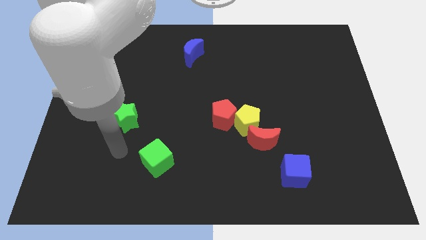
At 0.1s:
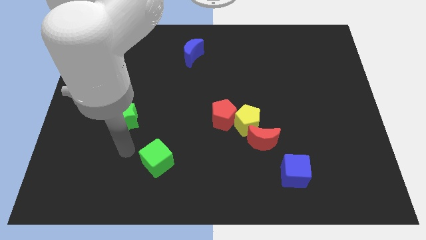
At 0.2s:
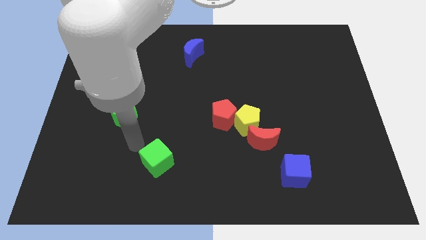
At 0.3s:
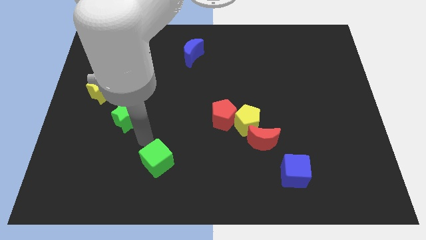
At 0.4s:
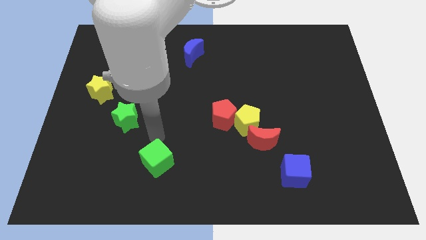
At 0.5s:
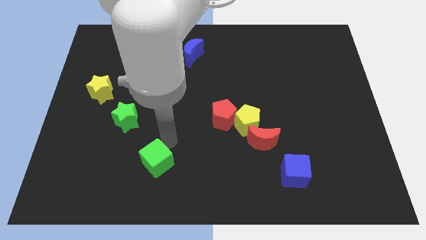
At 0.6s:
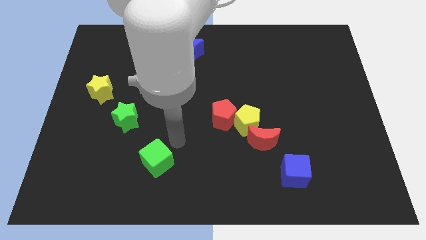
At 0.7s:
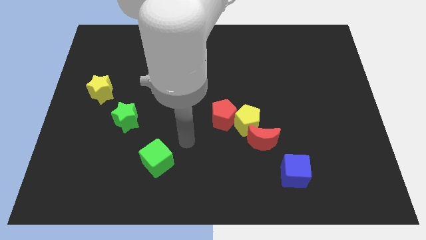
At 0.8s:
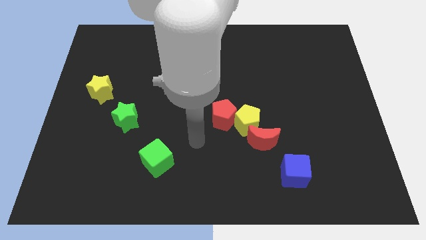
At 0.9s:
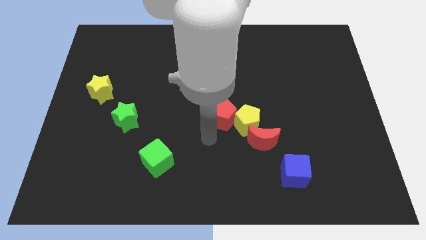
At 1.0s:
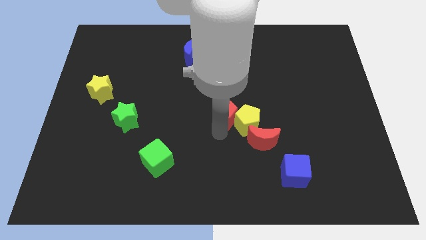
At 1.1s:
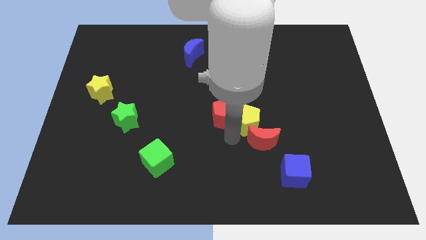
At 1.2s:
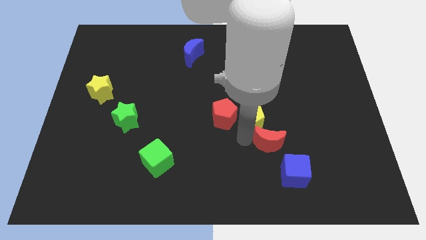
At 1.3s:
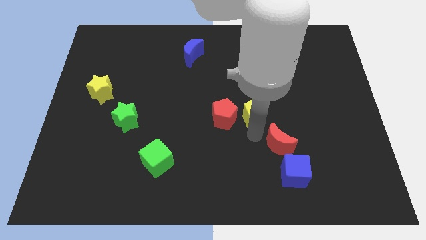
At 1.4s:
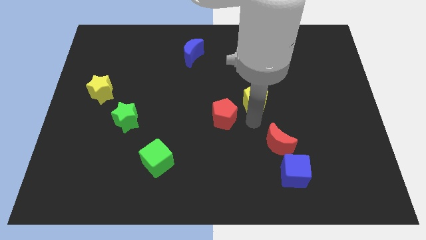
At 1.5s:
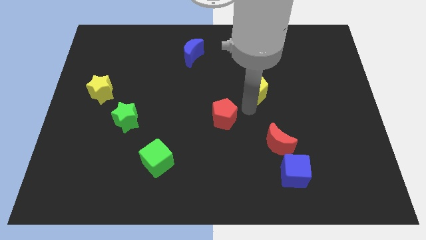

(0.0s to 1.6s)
move the red pentagon away from the yellow pentagon

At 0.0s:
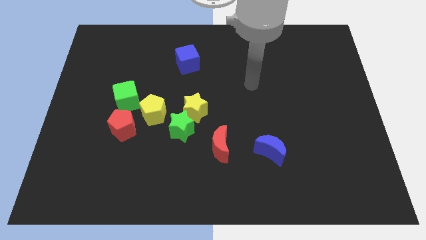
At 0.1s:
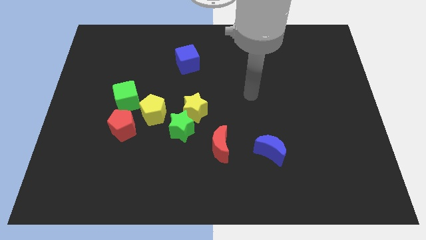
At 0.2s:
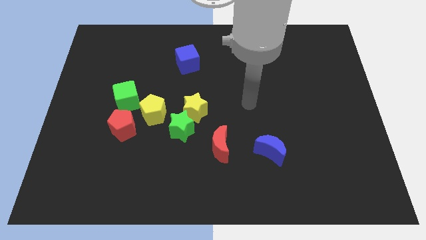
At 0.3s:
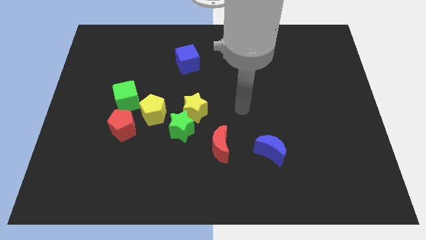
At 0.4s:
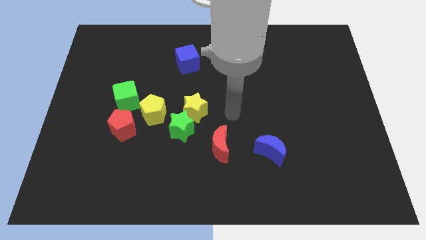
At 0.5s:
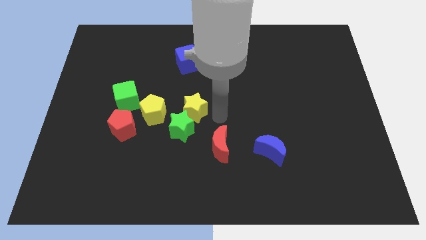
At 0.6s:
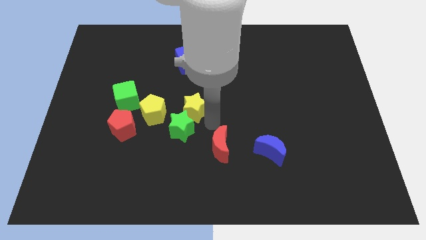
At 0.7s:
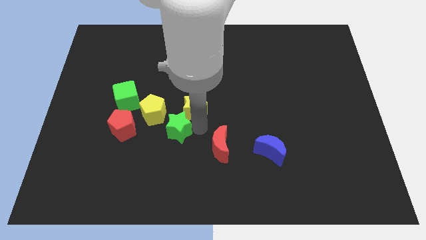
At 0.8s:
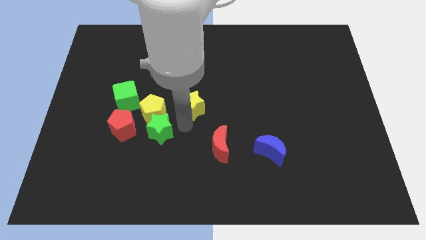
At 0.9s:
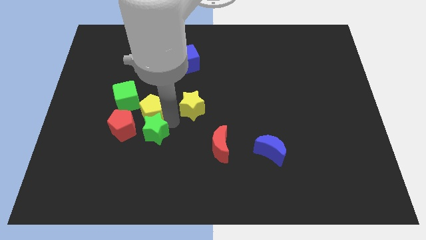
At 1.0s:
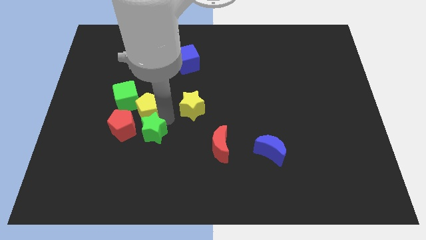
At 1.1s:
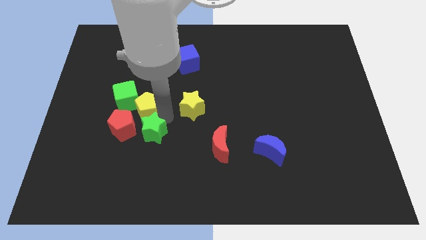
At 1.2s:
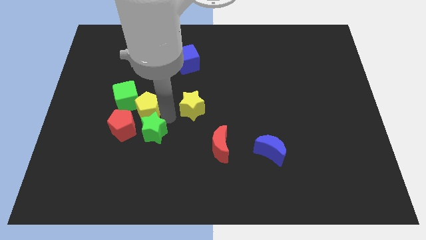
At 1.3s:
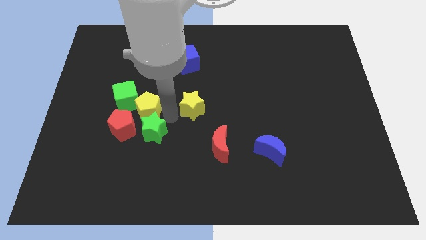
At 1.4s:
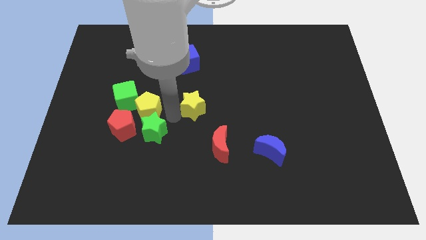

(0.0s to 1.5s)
move the yellow star away from the green star and yellow pentagon

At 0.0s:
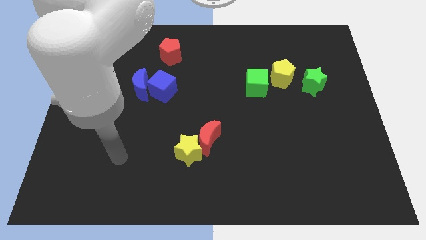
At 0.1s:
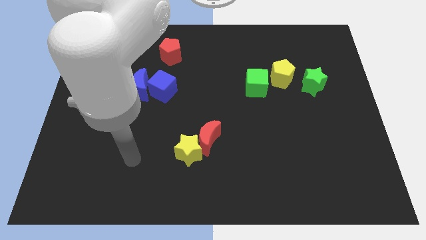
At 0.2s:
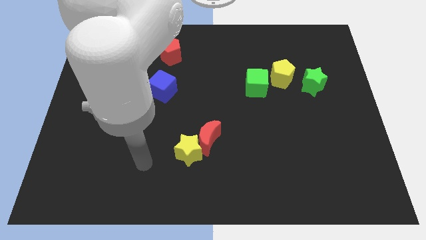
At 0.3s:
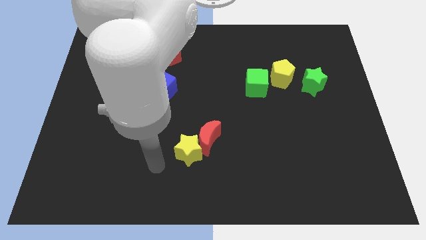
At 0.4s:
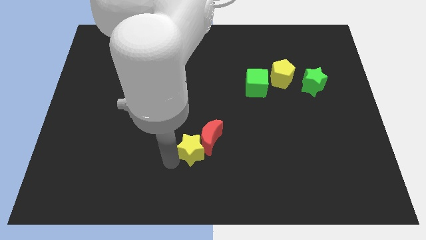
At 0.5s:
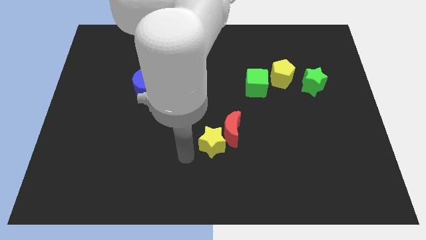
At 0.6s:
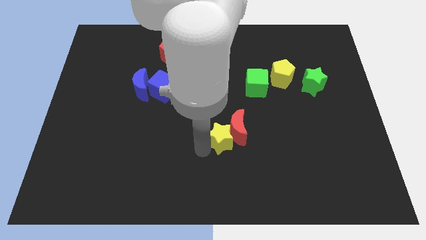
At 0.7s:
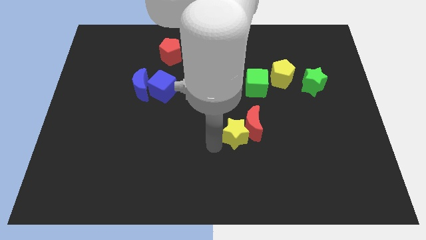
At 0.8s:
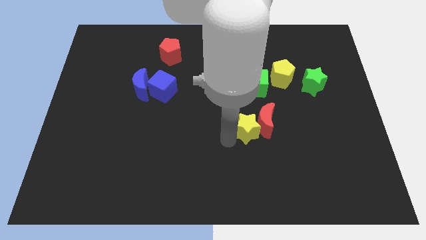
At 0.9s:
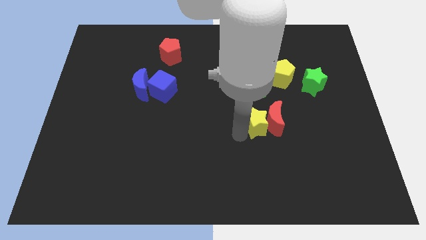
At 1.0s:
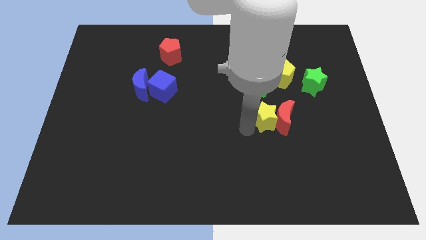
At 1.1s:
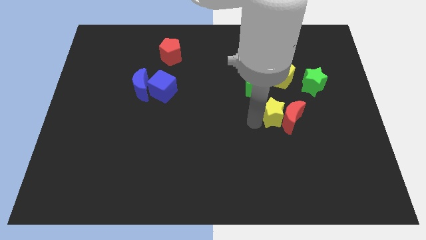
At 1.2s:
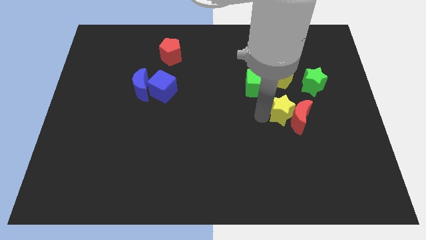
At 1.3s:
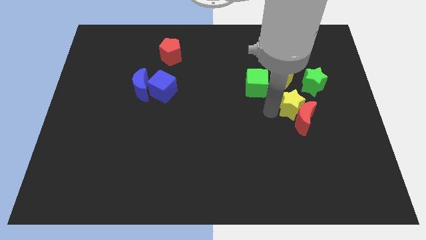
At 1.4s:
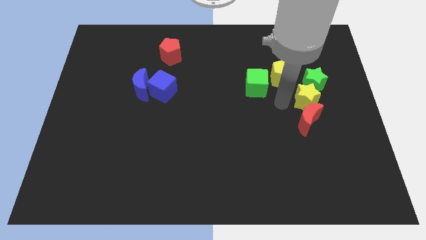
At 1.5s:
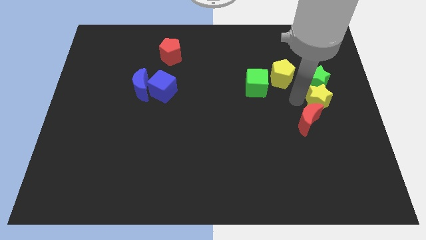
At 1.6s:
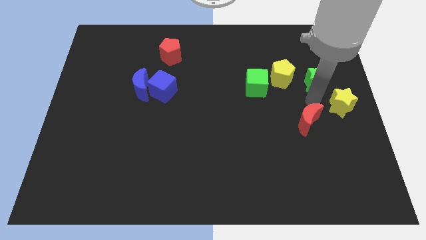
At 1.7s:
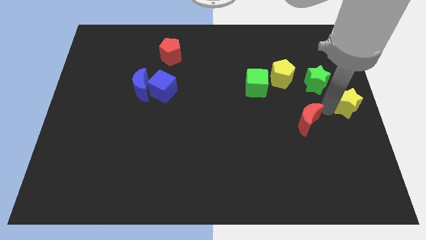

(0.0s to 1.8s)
separate the red moon from the yellow star

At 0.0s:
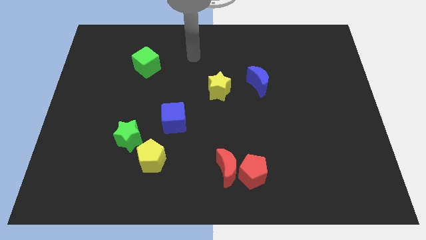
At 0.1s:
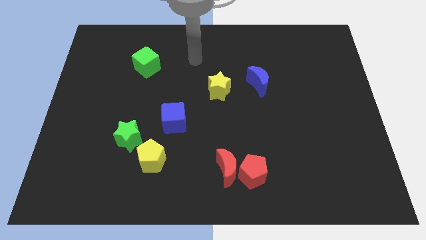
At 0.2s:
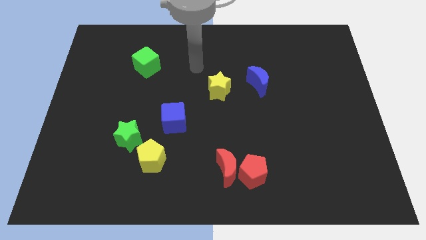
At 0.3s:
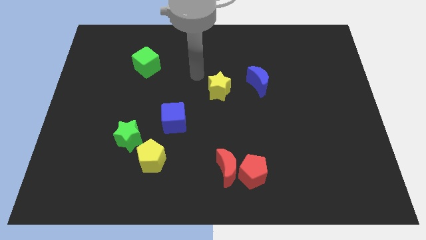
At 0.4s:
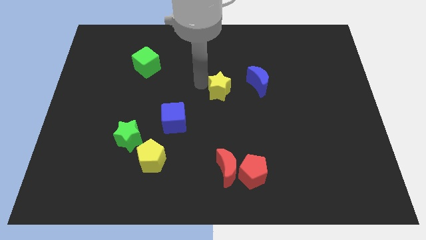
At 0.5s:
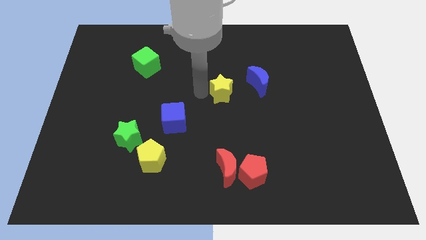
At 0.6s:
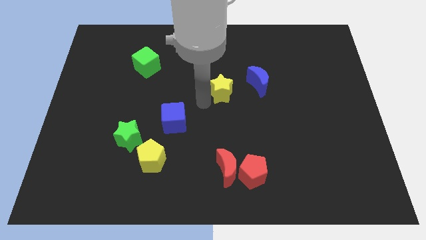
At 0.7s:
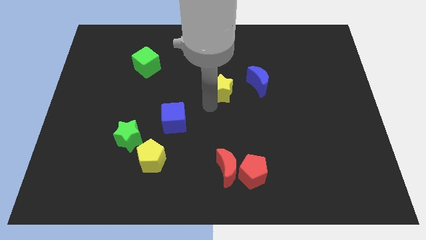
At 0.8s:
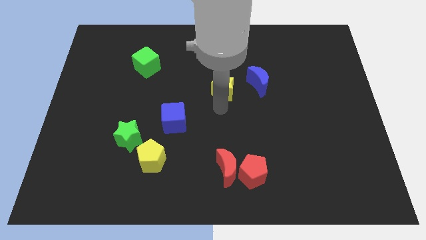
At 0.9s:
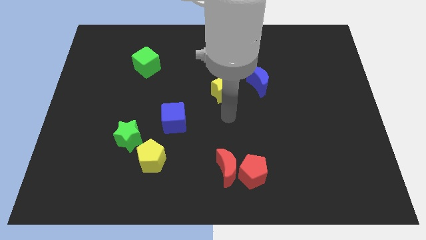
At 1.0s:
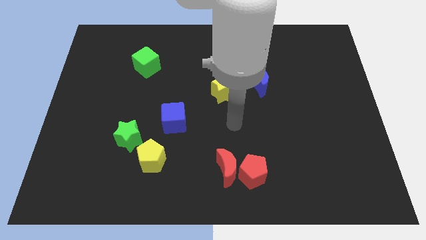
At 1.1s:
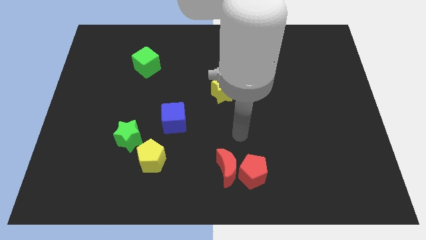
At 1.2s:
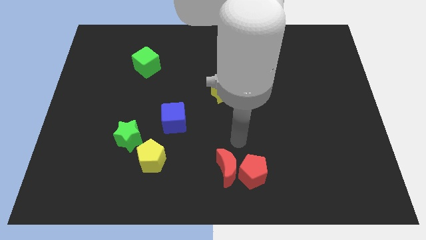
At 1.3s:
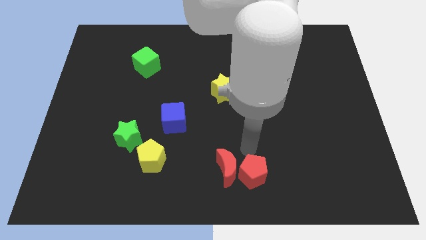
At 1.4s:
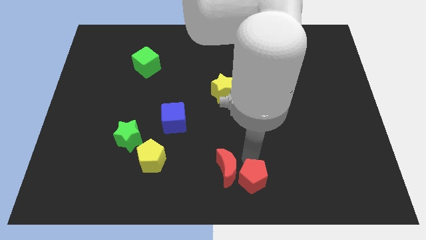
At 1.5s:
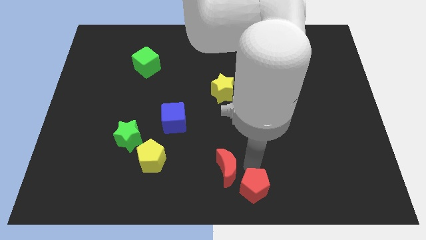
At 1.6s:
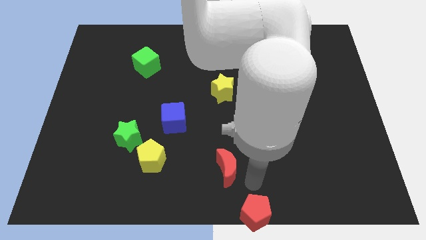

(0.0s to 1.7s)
move the red moon away from the red pentagon

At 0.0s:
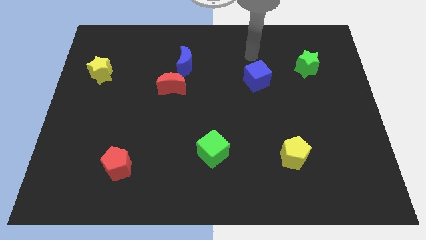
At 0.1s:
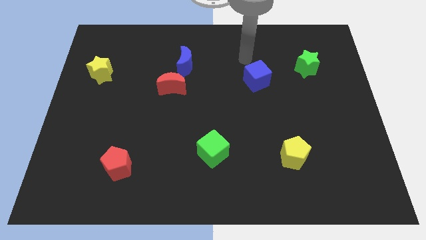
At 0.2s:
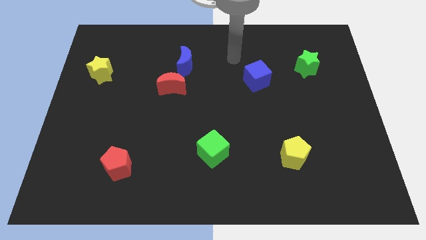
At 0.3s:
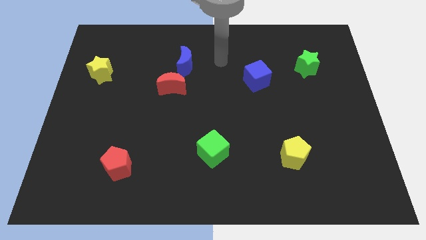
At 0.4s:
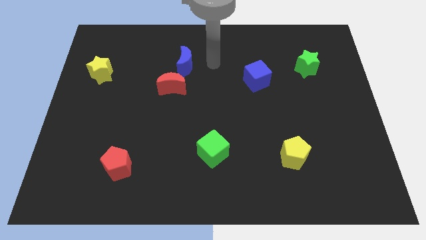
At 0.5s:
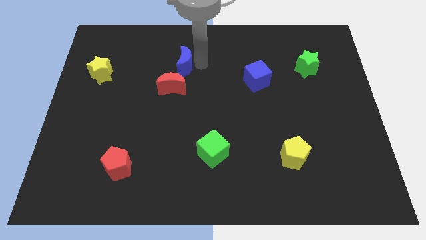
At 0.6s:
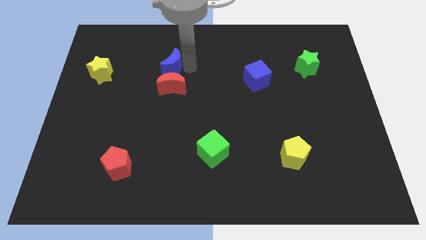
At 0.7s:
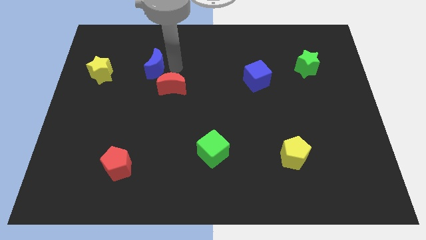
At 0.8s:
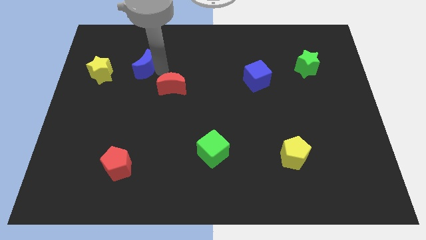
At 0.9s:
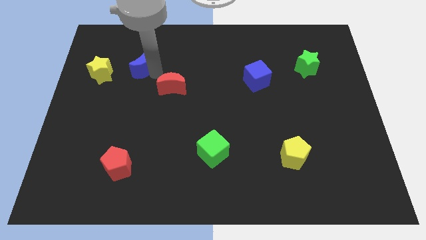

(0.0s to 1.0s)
move the red moon away from the blue moon

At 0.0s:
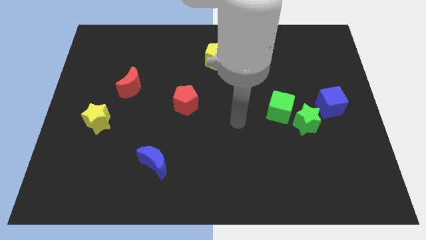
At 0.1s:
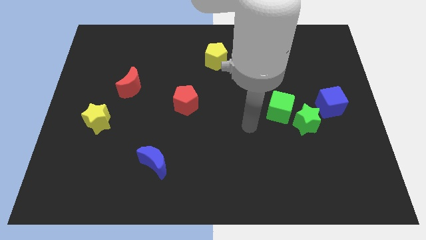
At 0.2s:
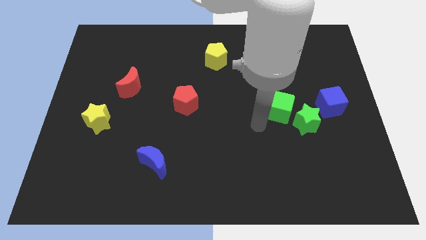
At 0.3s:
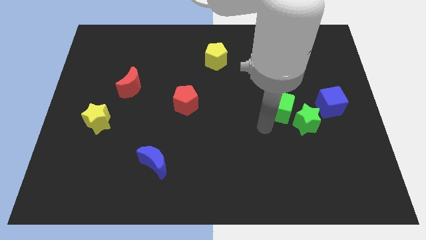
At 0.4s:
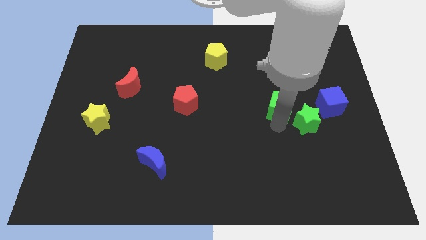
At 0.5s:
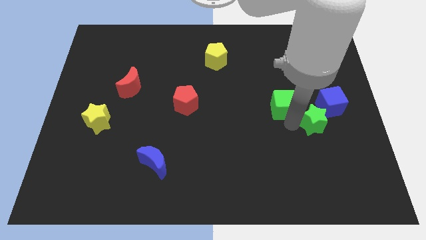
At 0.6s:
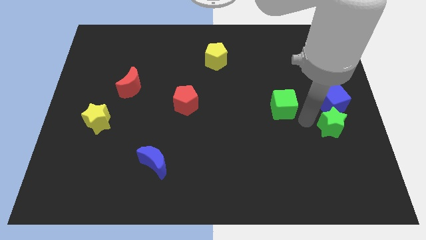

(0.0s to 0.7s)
separate the green cube from the green star

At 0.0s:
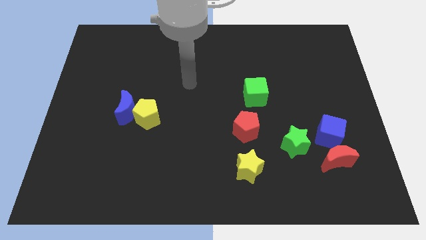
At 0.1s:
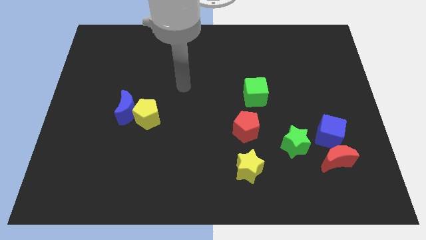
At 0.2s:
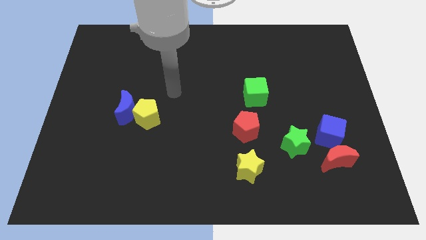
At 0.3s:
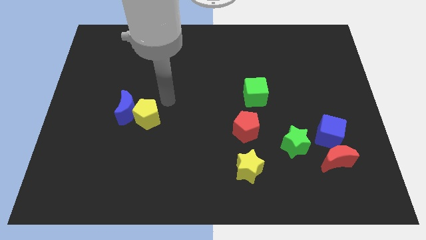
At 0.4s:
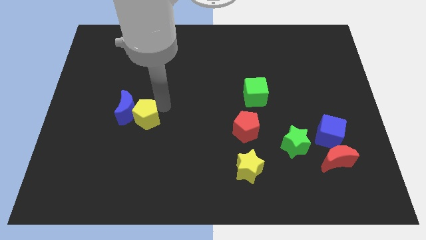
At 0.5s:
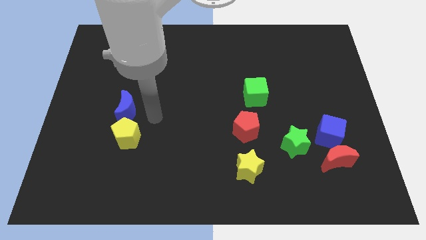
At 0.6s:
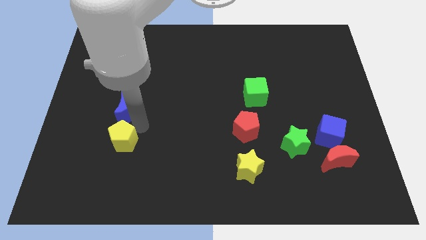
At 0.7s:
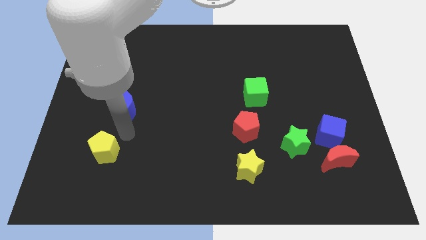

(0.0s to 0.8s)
separate the blue moon from the yellow pentagon

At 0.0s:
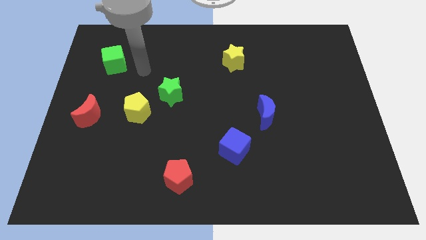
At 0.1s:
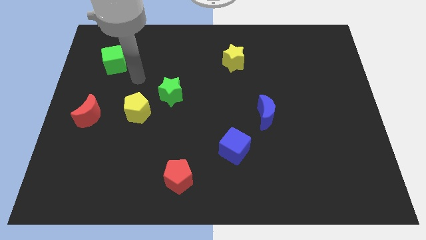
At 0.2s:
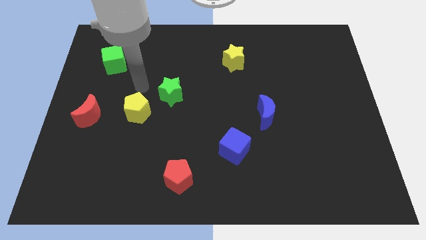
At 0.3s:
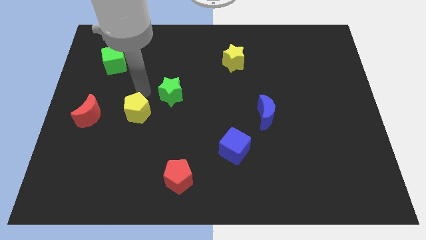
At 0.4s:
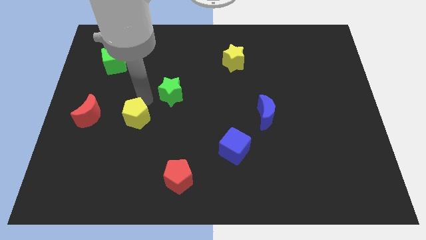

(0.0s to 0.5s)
pull the green star apart from the yellow pentagon
